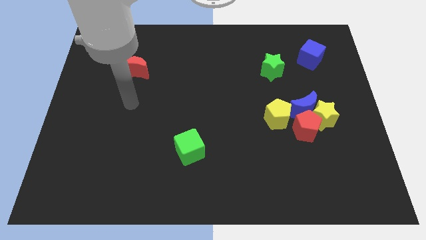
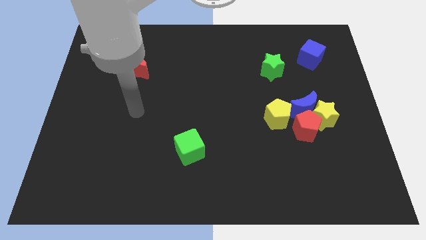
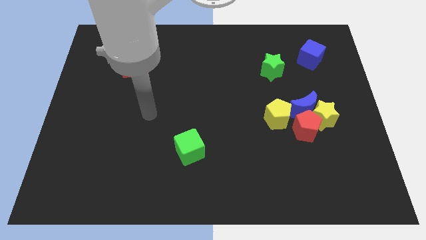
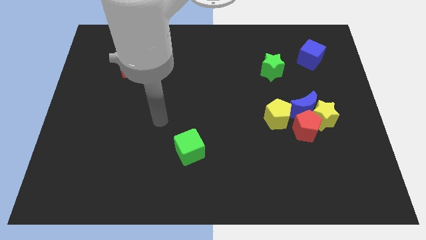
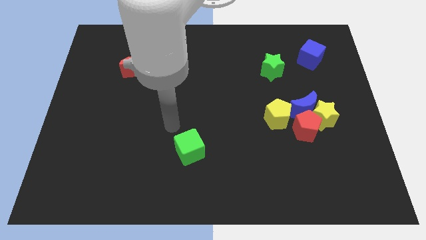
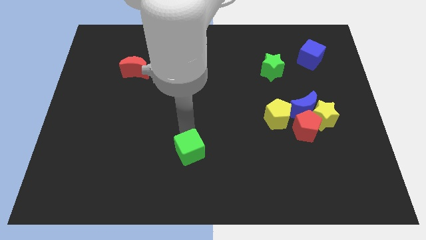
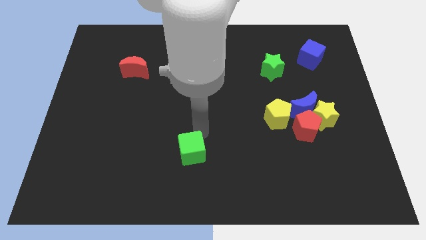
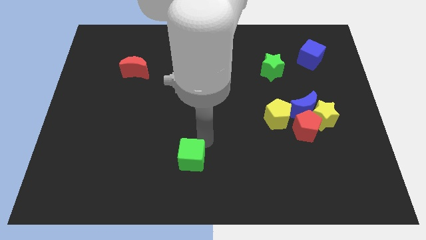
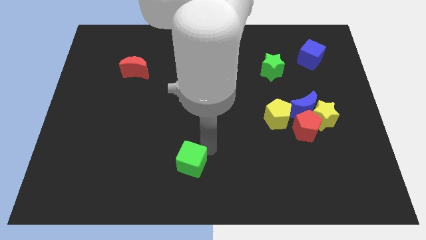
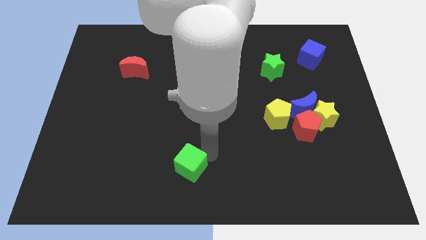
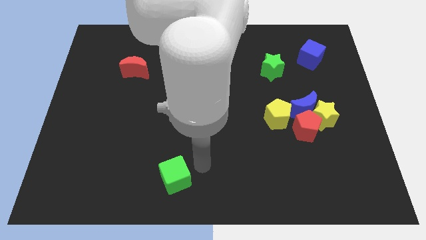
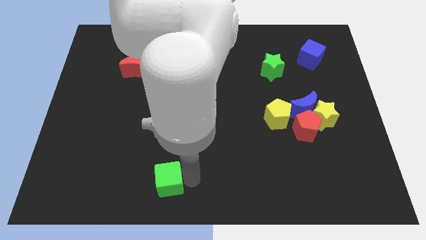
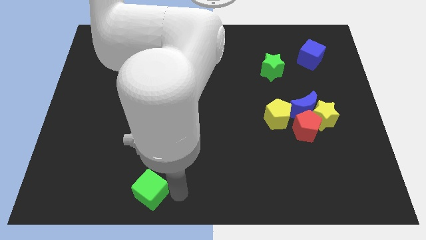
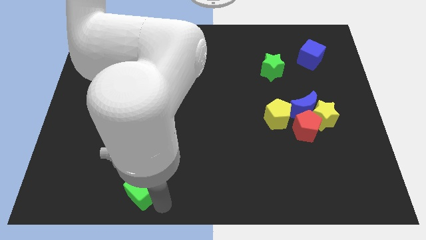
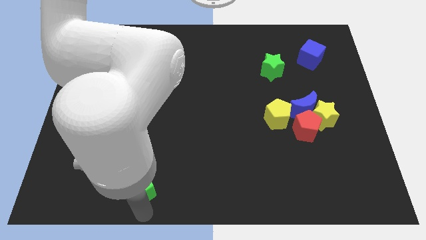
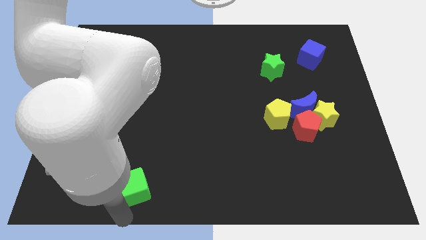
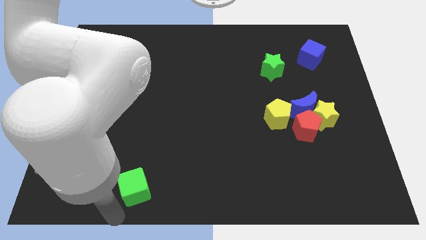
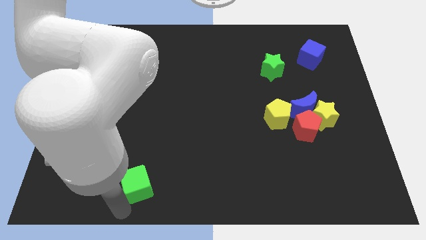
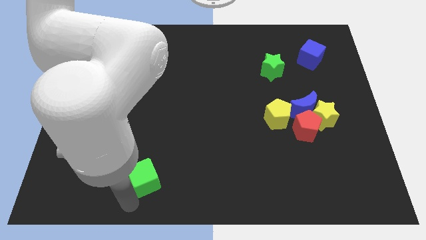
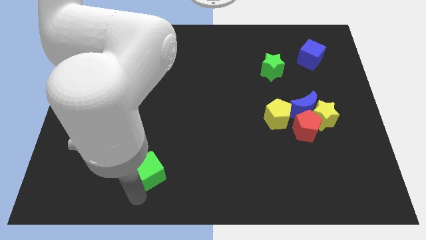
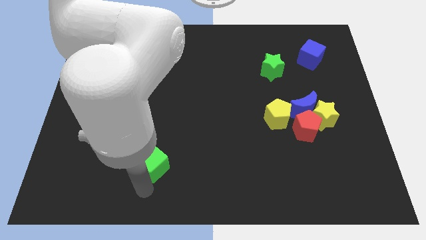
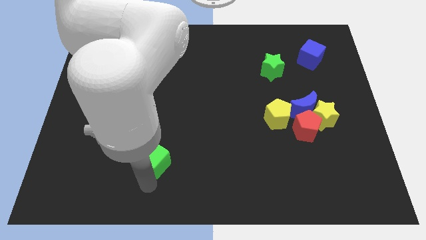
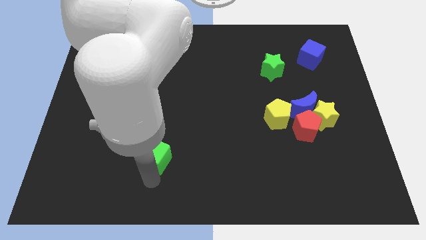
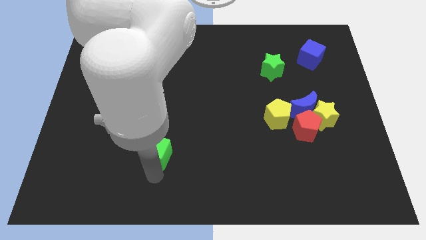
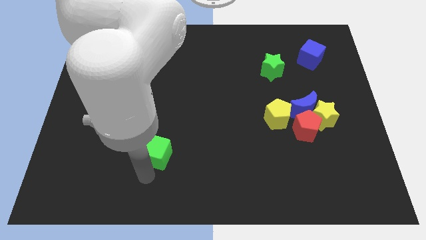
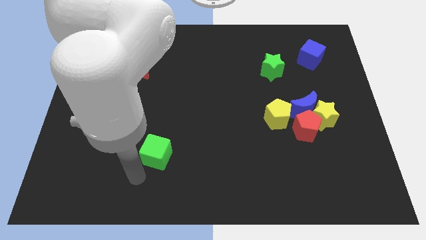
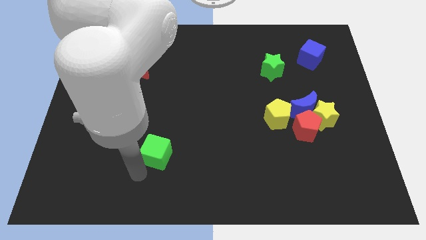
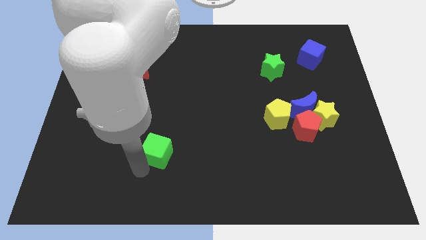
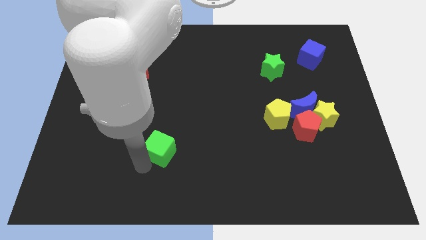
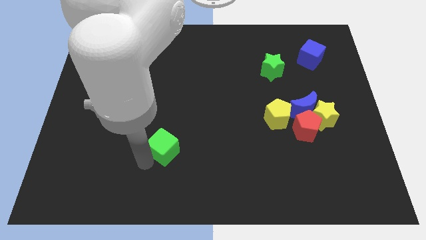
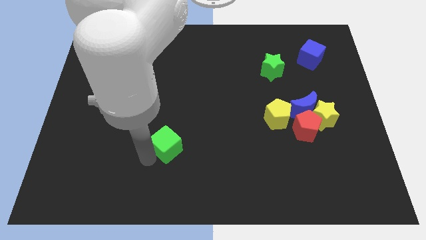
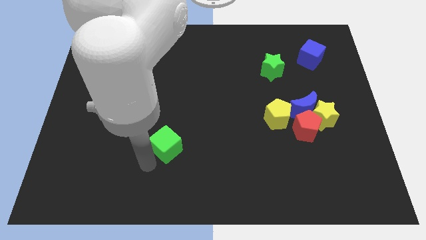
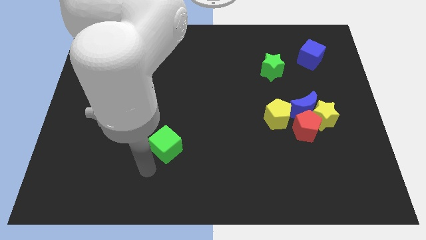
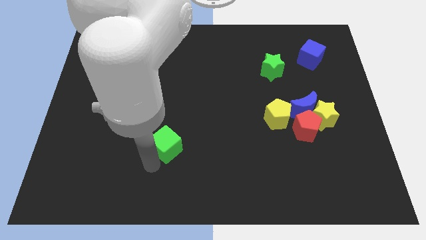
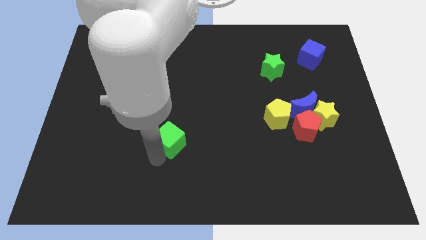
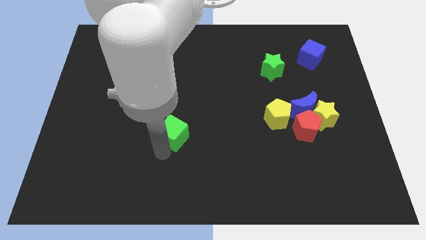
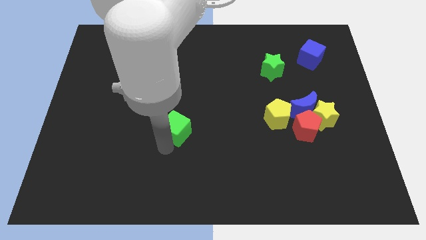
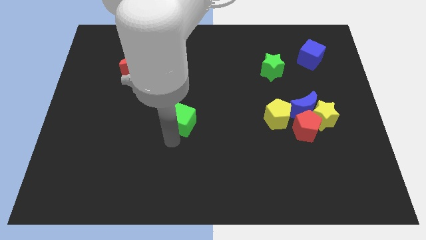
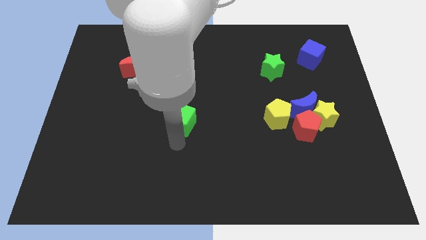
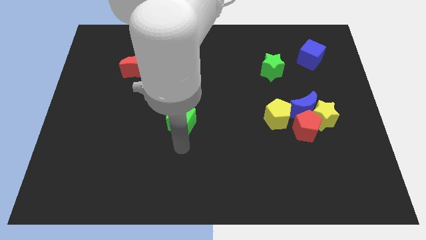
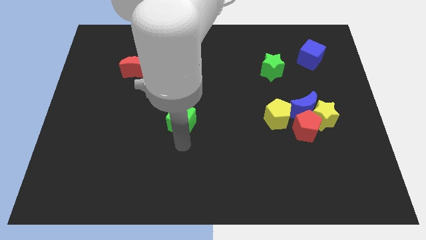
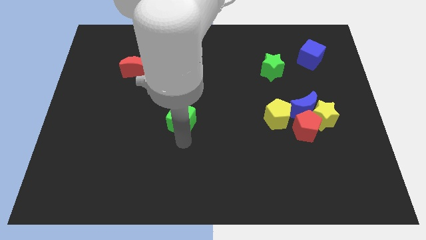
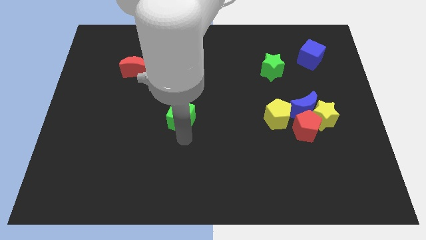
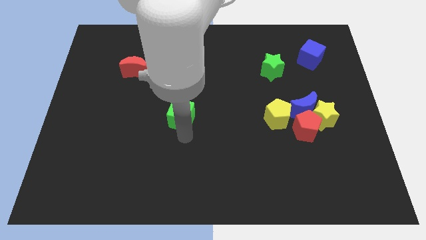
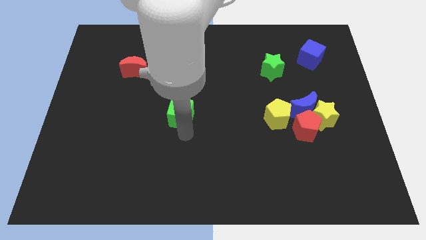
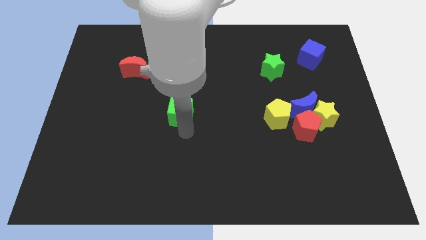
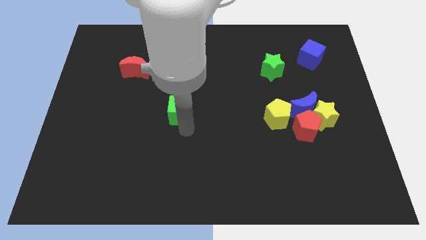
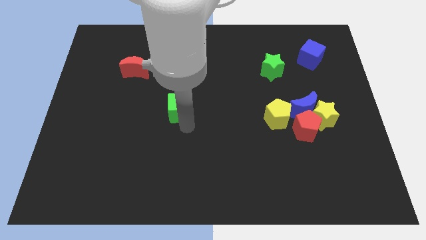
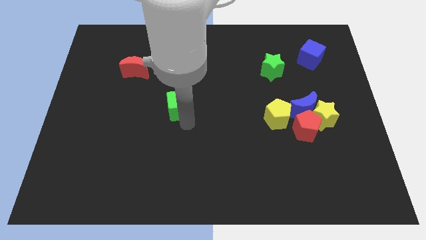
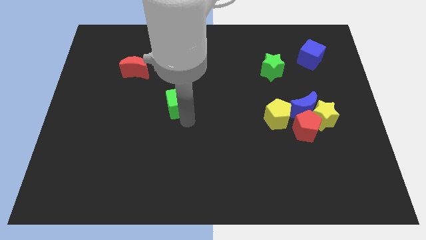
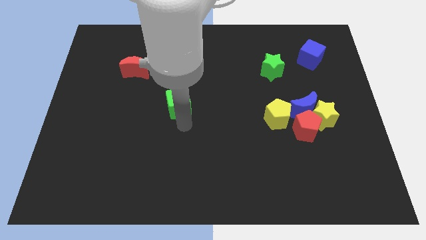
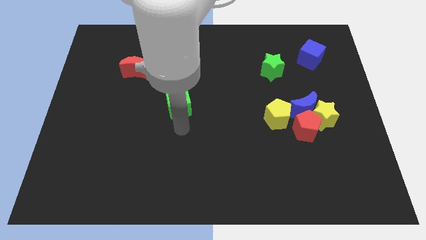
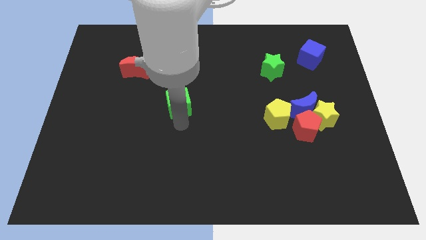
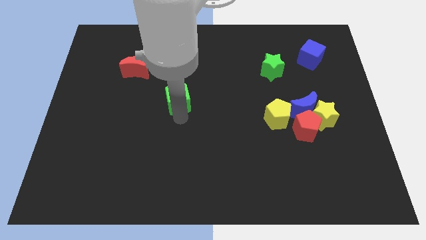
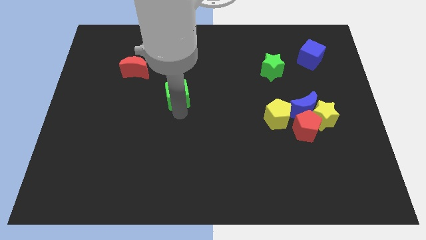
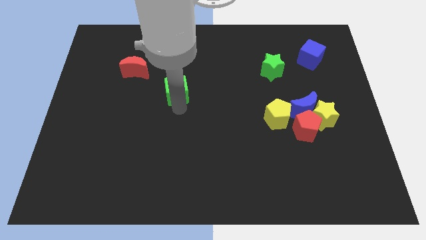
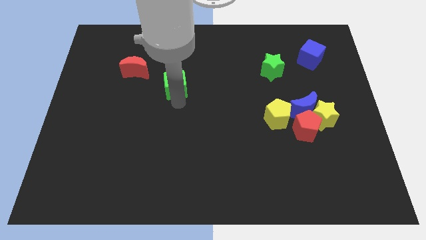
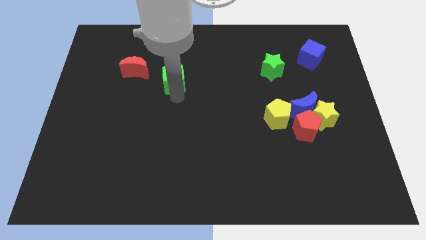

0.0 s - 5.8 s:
move the green cube just right of the red moon

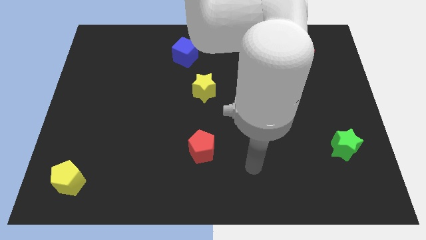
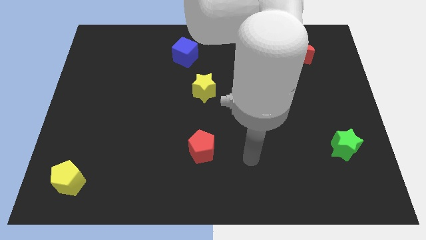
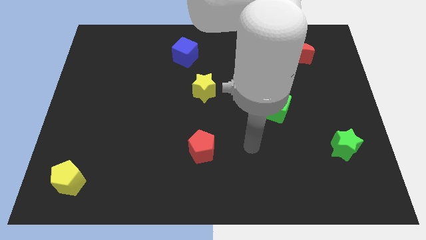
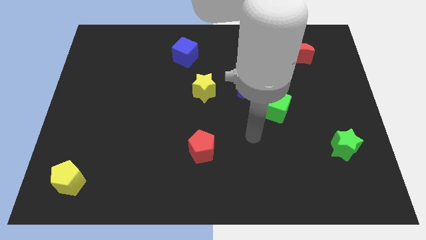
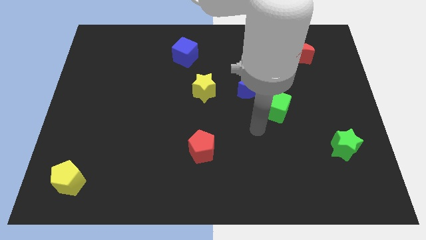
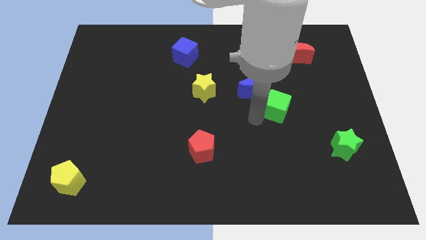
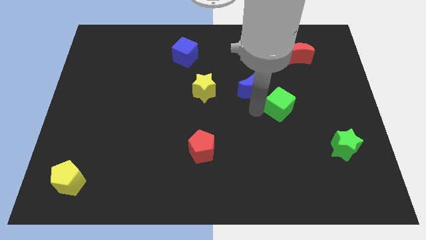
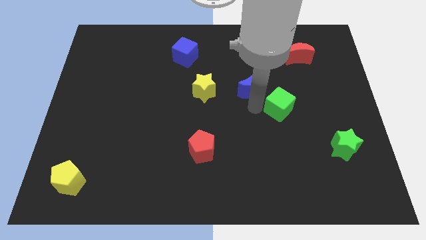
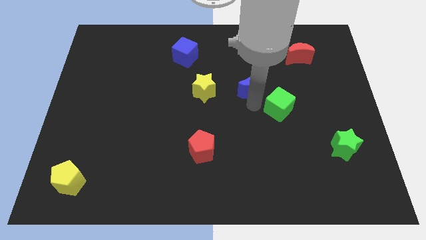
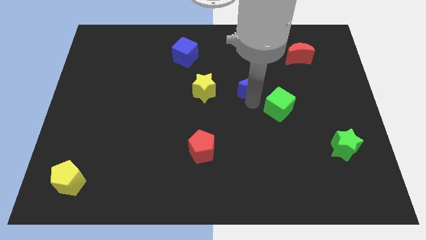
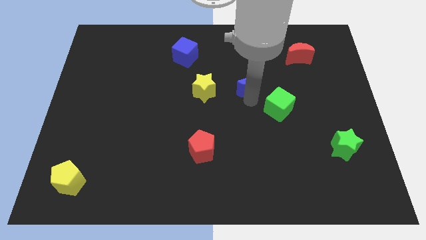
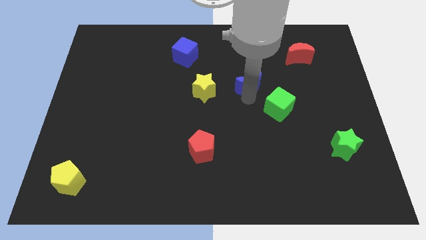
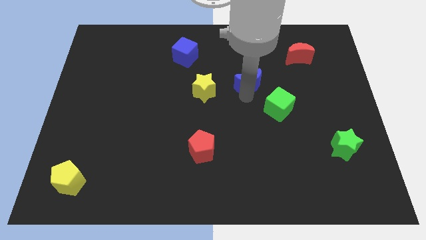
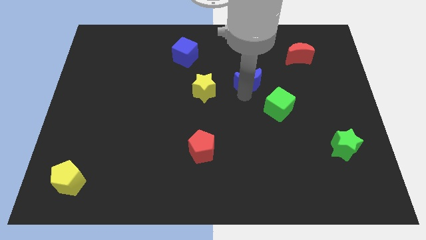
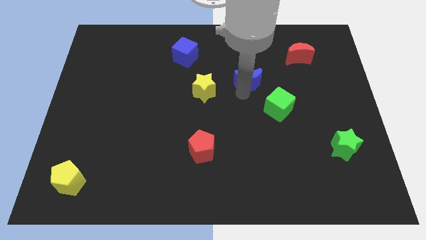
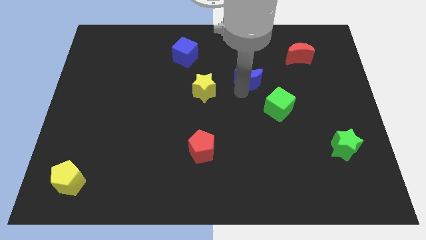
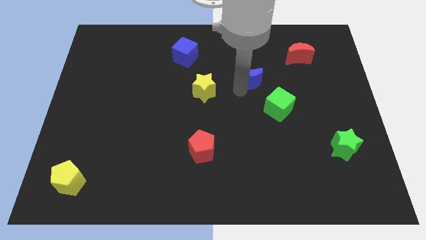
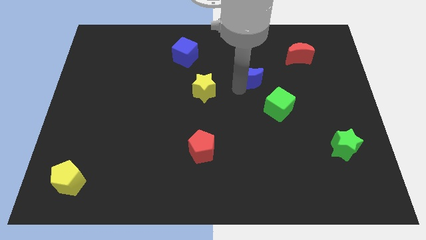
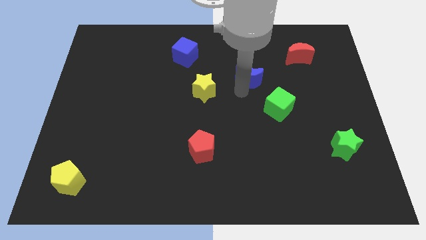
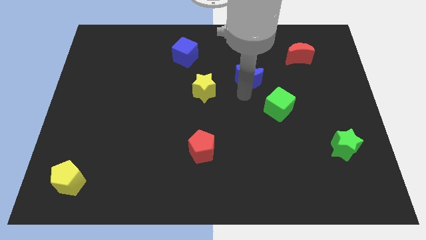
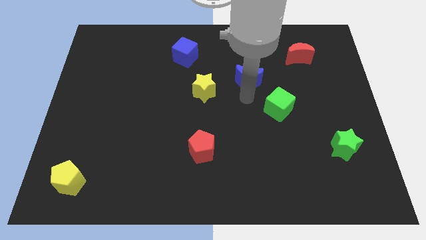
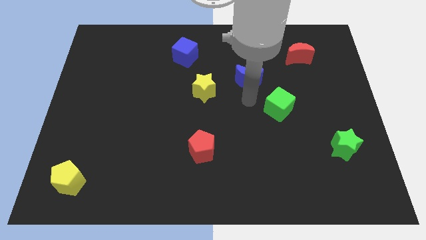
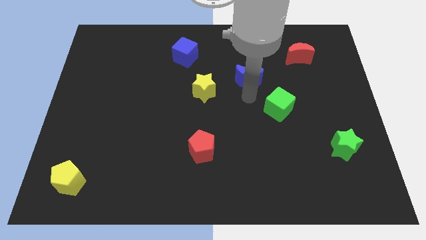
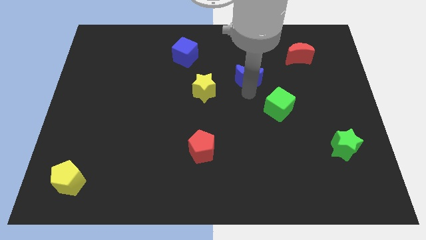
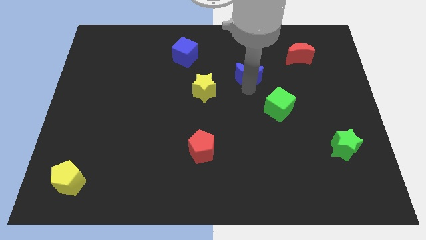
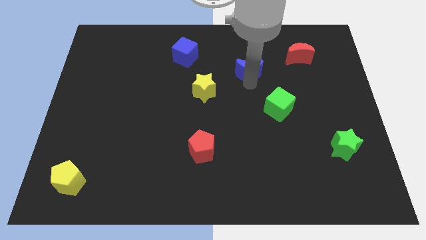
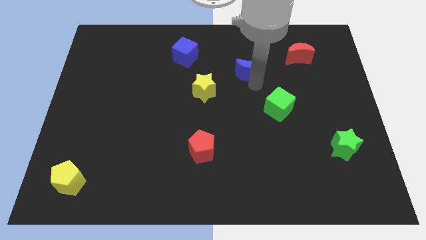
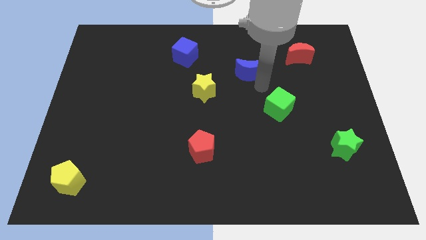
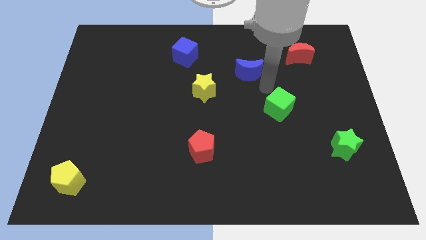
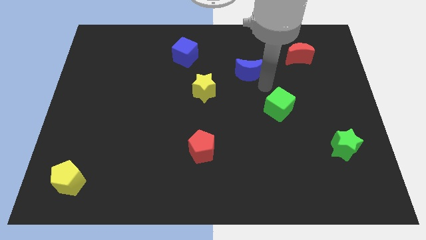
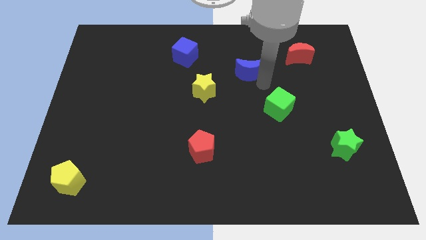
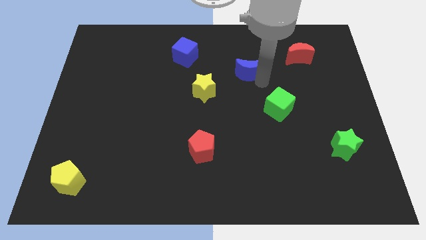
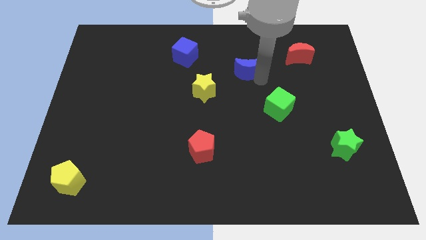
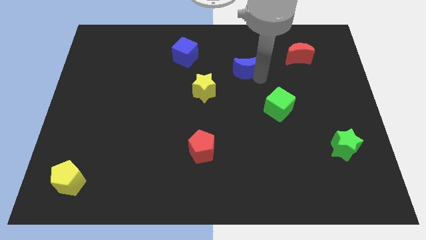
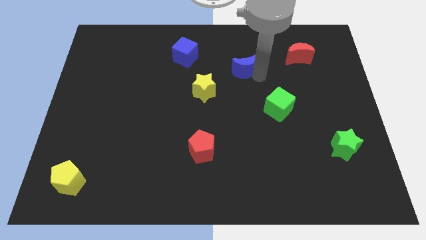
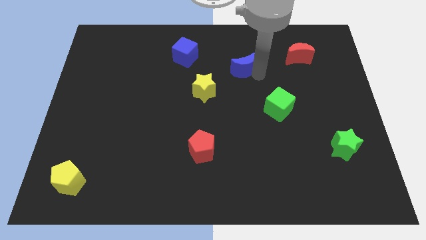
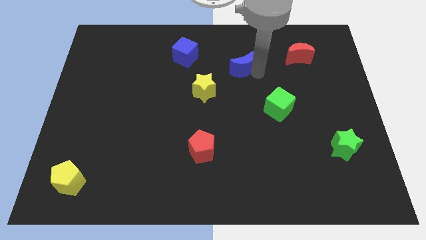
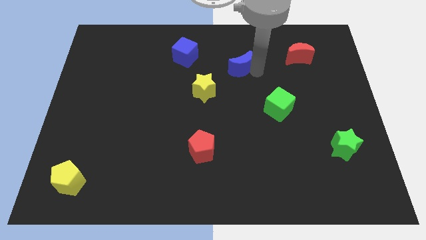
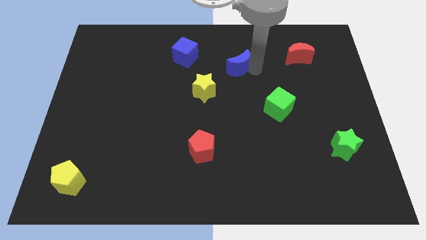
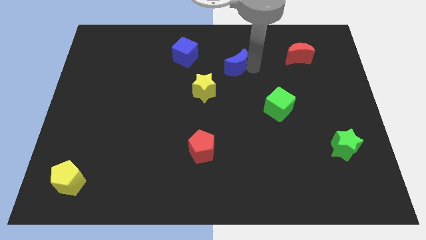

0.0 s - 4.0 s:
move the blue moon to the right side of the blue cube
